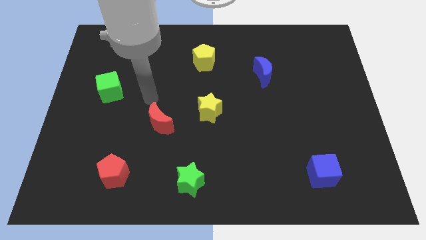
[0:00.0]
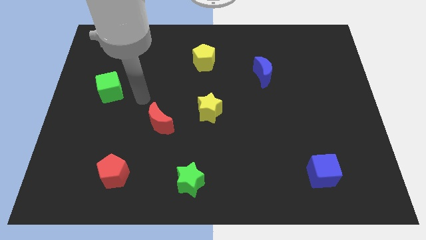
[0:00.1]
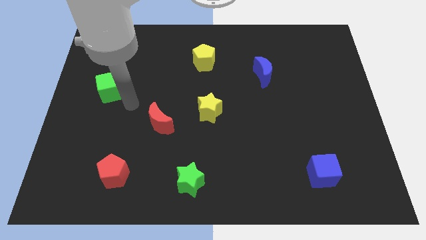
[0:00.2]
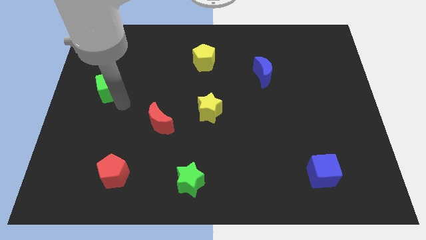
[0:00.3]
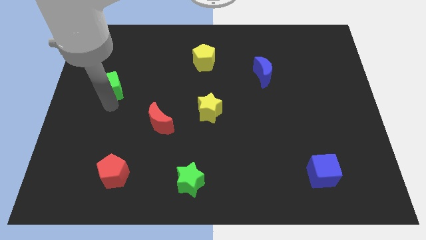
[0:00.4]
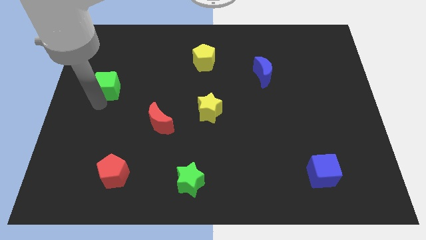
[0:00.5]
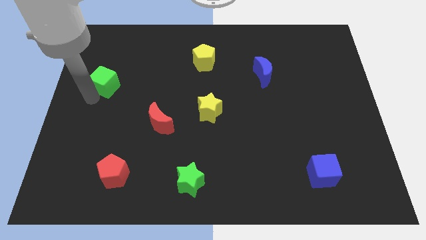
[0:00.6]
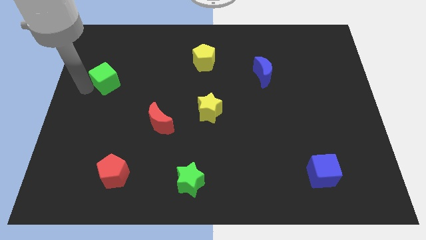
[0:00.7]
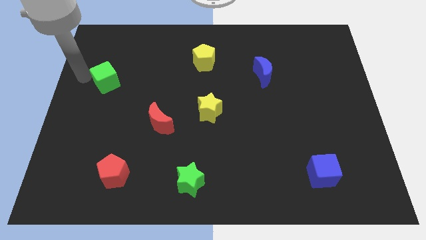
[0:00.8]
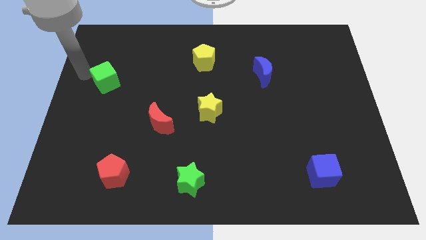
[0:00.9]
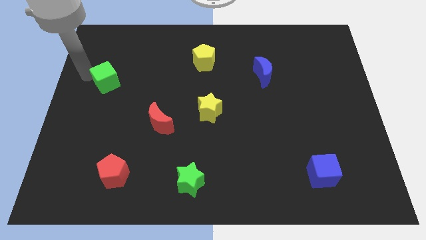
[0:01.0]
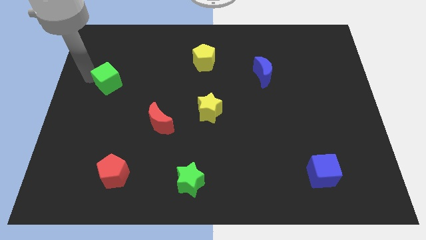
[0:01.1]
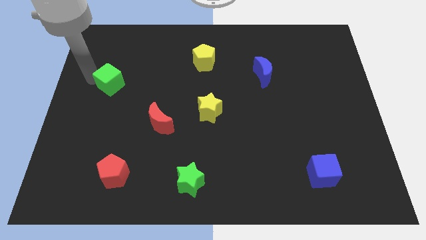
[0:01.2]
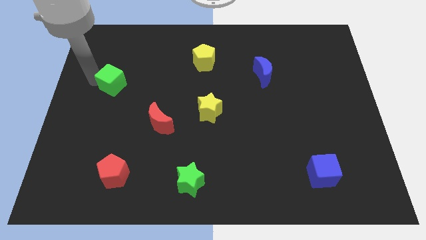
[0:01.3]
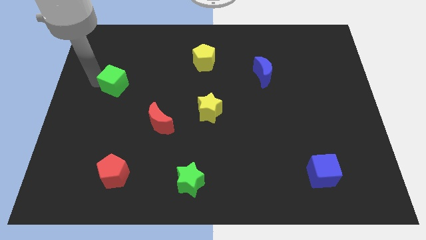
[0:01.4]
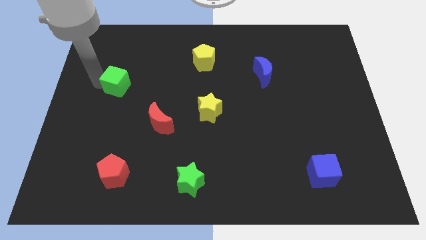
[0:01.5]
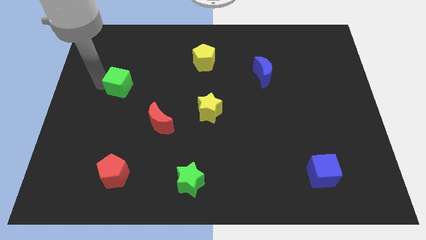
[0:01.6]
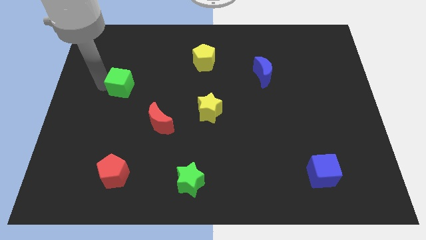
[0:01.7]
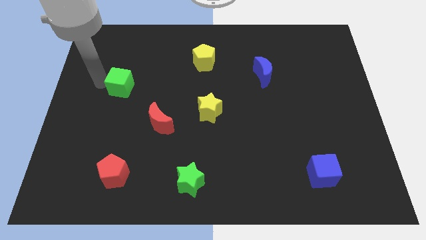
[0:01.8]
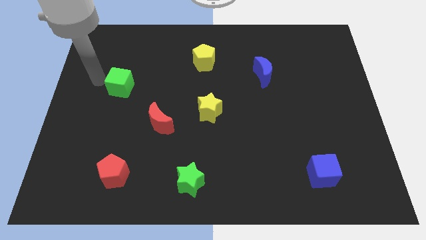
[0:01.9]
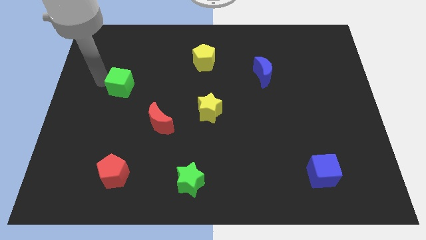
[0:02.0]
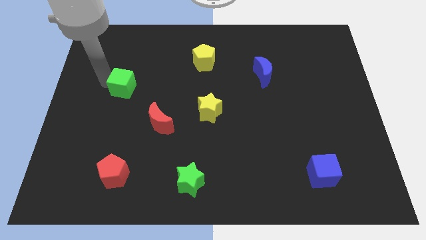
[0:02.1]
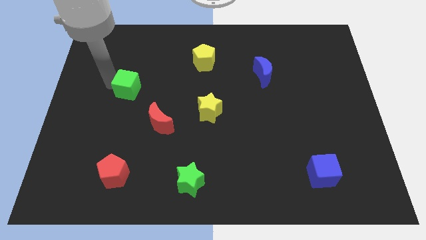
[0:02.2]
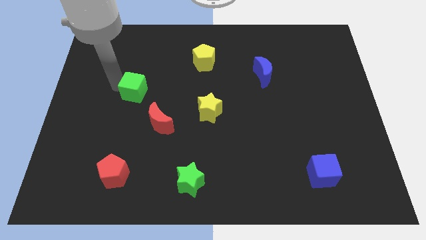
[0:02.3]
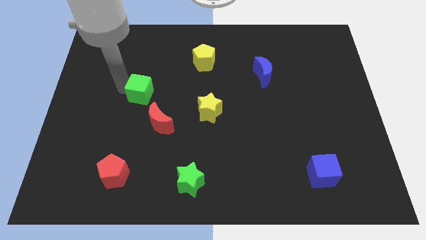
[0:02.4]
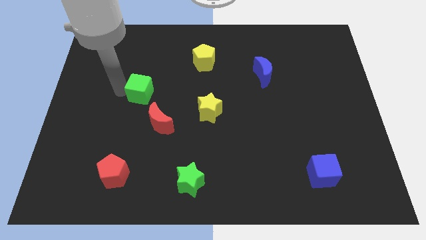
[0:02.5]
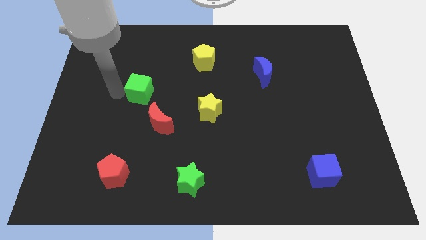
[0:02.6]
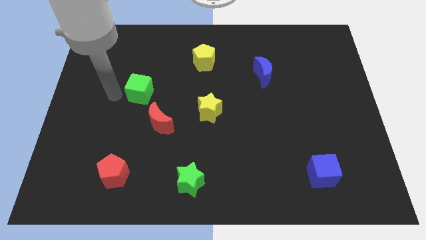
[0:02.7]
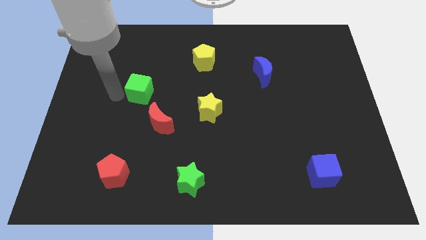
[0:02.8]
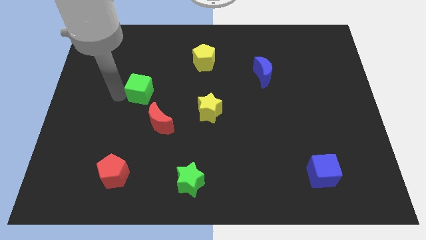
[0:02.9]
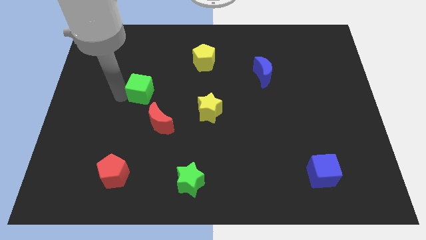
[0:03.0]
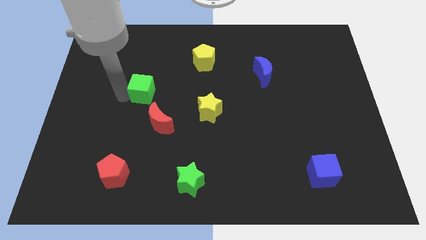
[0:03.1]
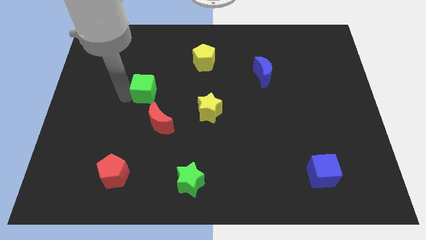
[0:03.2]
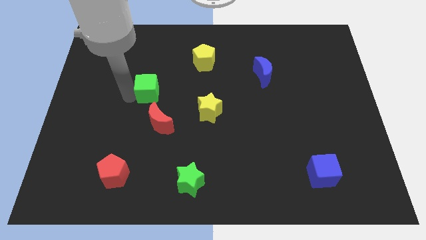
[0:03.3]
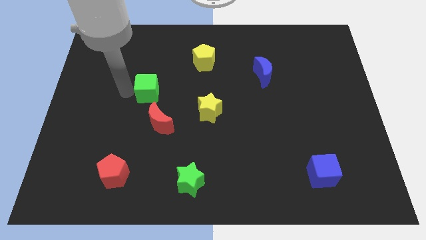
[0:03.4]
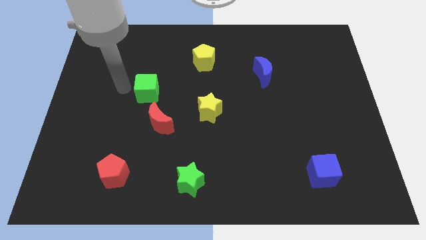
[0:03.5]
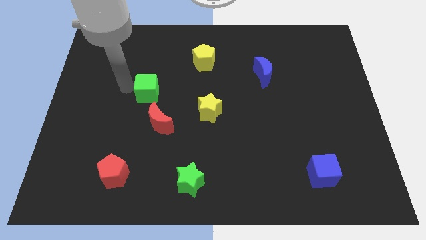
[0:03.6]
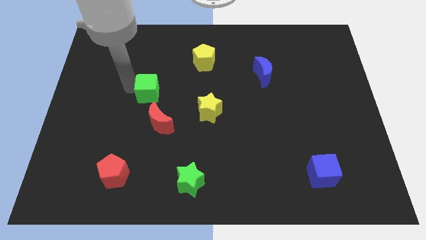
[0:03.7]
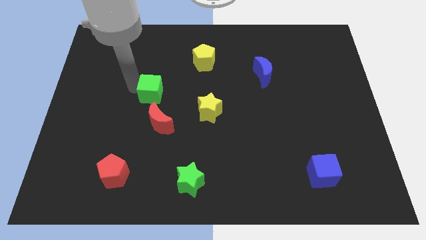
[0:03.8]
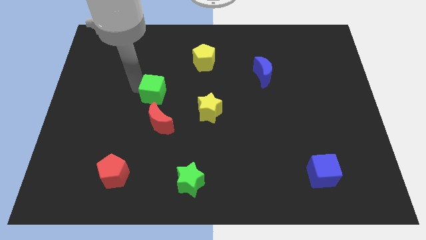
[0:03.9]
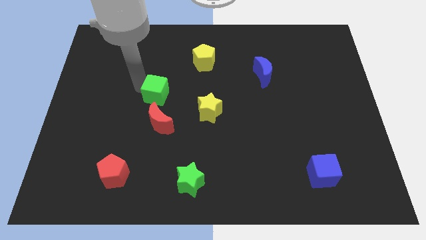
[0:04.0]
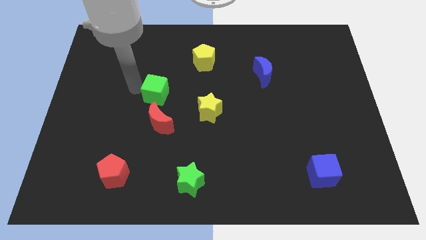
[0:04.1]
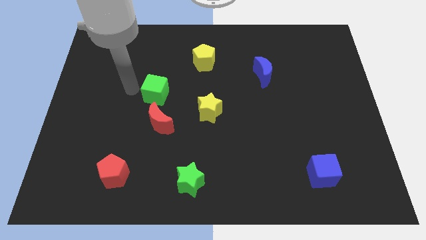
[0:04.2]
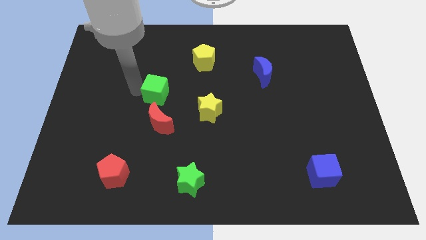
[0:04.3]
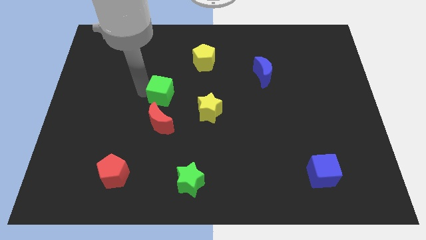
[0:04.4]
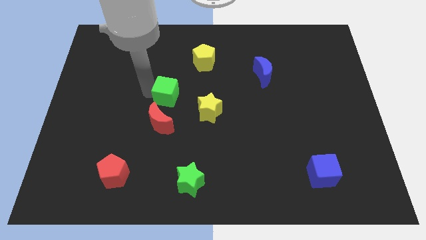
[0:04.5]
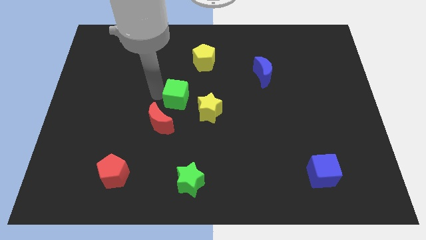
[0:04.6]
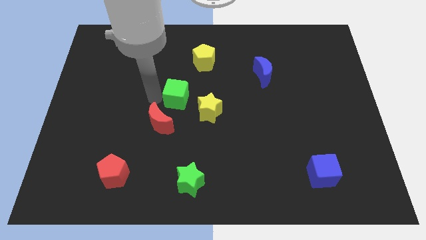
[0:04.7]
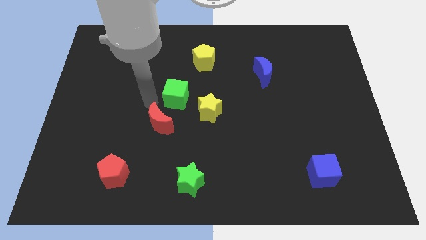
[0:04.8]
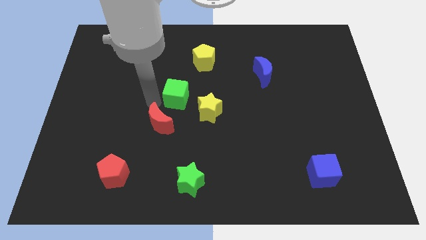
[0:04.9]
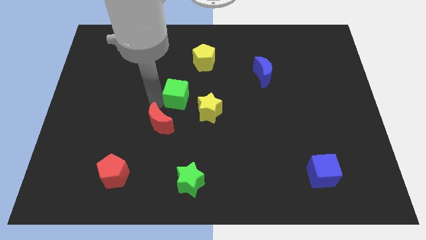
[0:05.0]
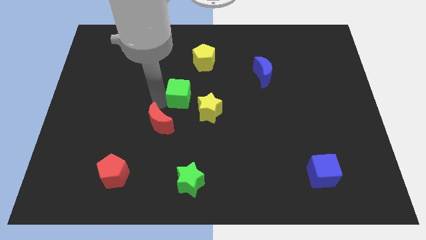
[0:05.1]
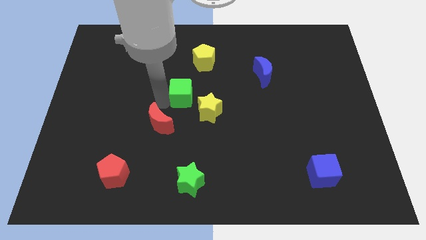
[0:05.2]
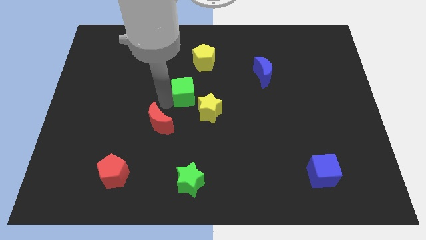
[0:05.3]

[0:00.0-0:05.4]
move the green cube to the bottom side of the yellow pentagon

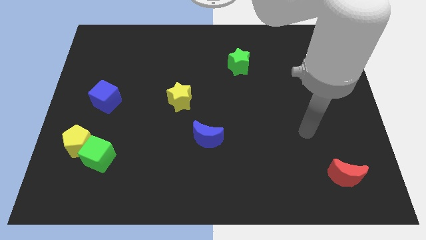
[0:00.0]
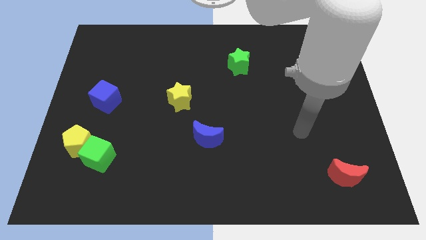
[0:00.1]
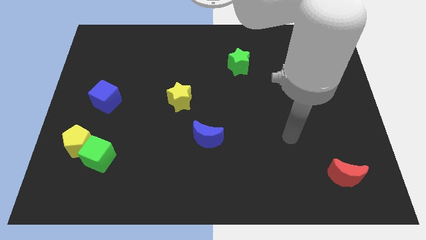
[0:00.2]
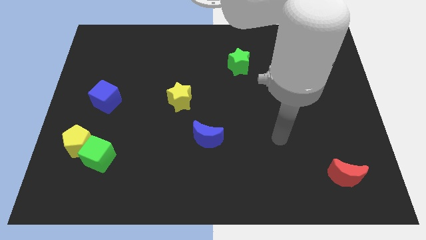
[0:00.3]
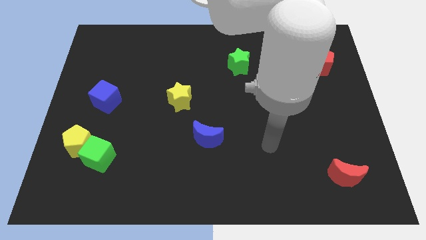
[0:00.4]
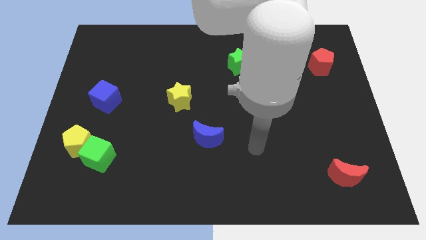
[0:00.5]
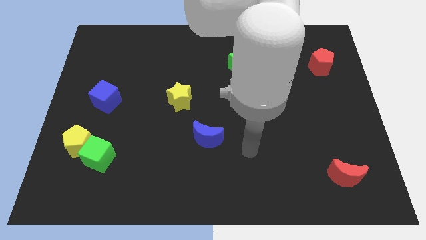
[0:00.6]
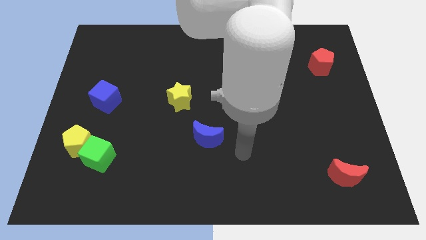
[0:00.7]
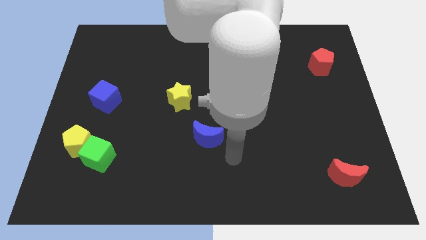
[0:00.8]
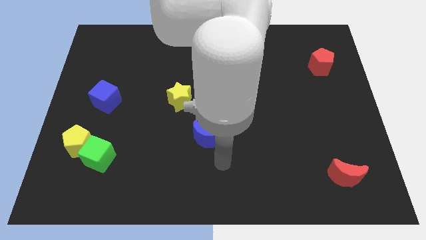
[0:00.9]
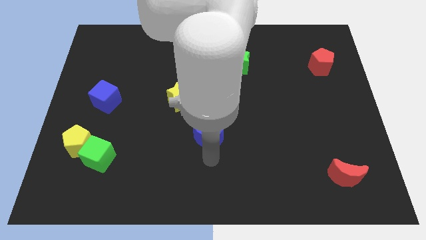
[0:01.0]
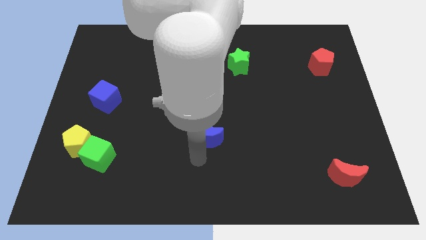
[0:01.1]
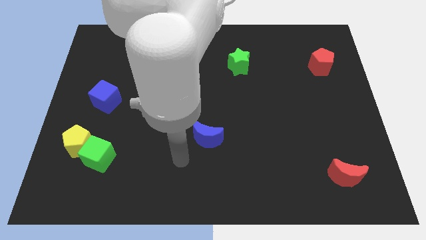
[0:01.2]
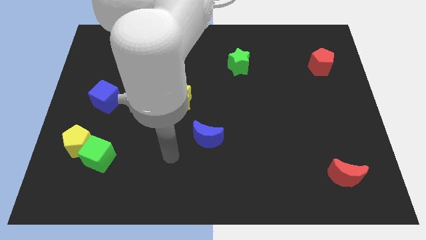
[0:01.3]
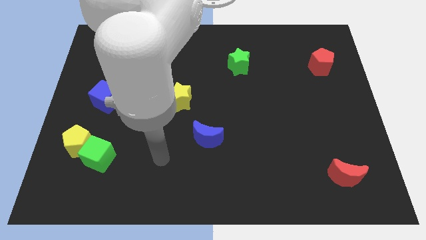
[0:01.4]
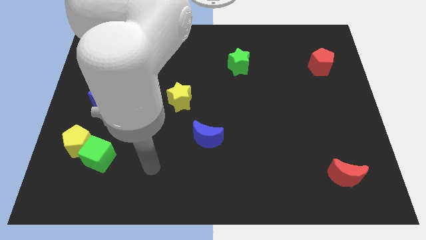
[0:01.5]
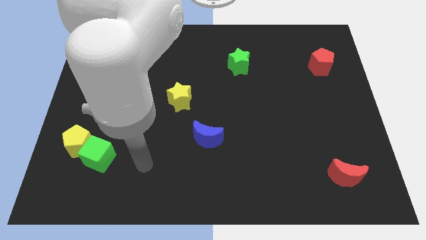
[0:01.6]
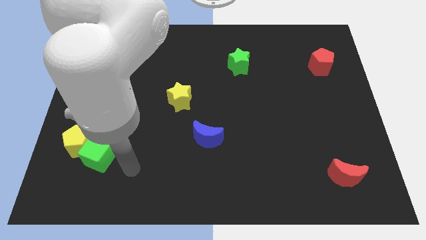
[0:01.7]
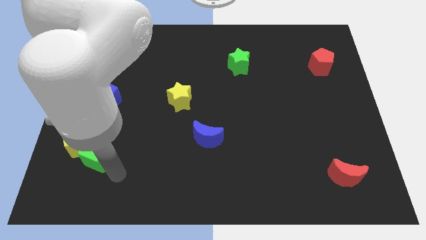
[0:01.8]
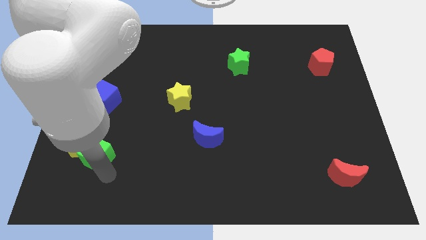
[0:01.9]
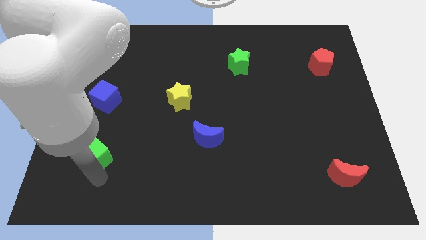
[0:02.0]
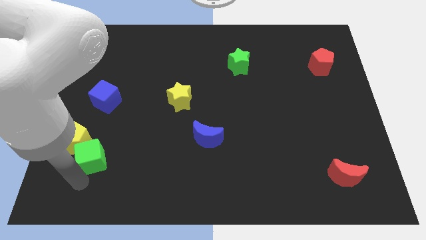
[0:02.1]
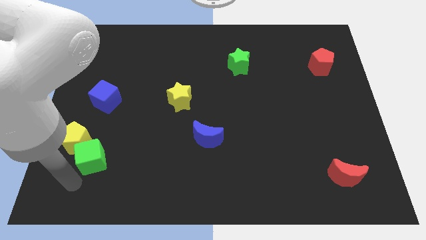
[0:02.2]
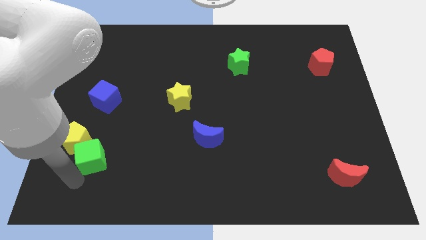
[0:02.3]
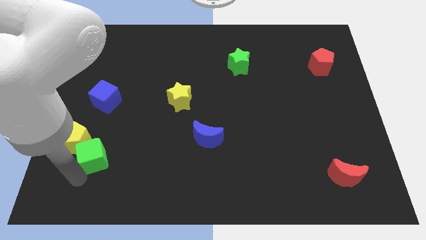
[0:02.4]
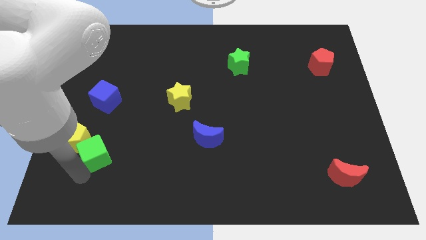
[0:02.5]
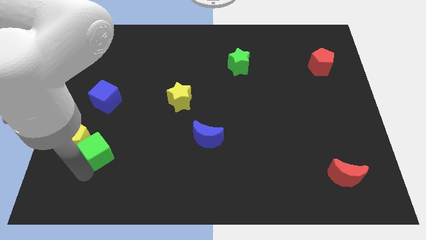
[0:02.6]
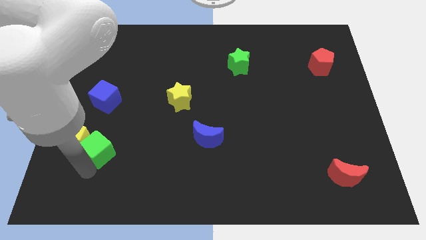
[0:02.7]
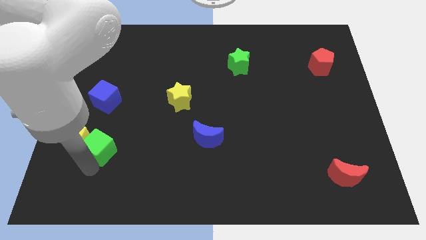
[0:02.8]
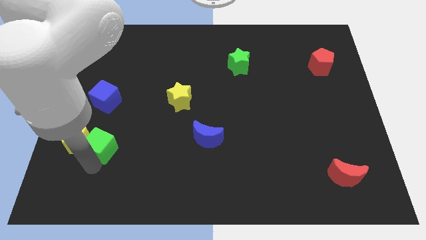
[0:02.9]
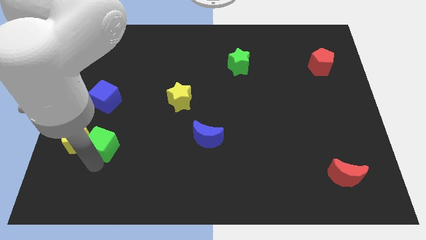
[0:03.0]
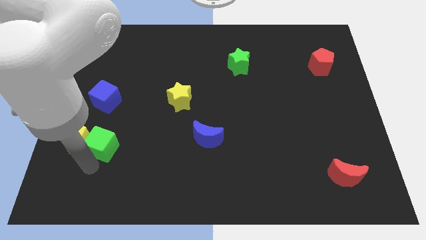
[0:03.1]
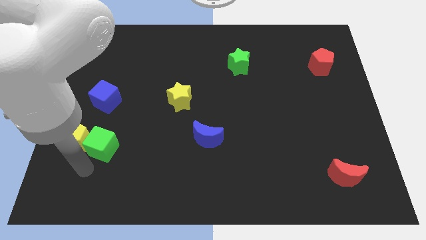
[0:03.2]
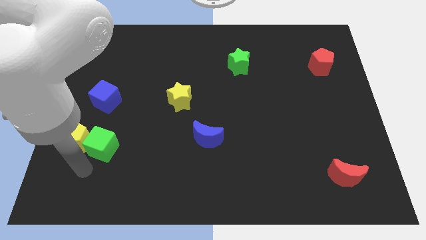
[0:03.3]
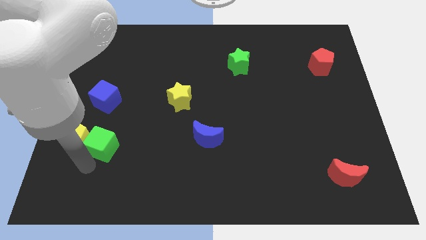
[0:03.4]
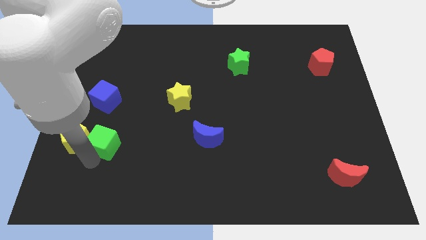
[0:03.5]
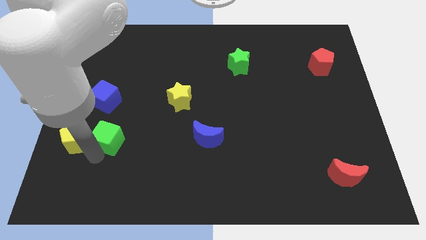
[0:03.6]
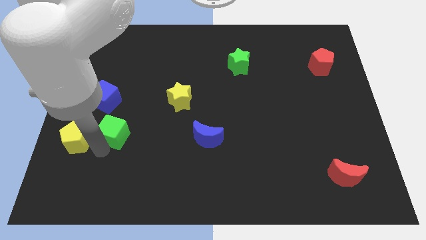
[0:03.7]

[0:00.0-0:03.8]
push the green cube diagonally down and to the right of the blue cube
